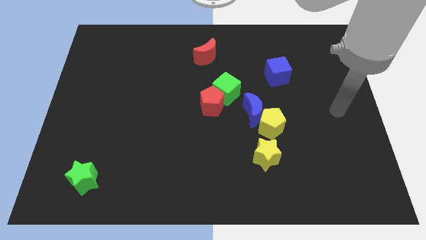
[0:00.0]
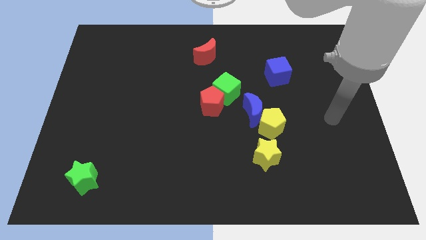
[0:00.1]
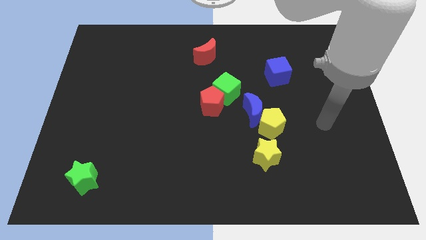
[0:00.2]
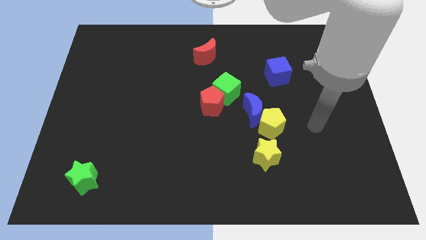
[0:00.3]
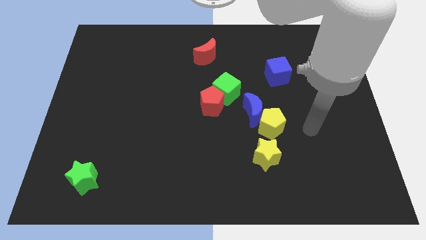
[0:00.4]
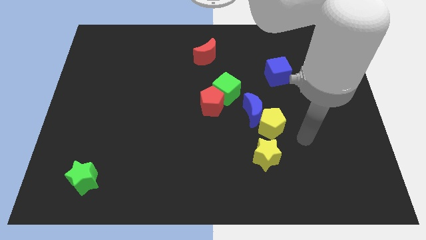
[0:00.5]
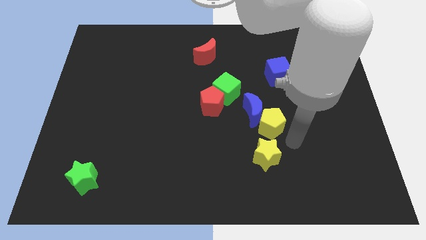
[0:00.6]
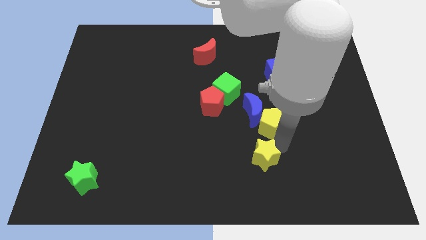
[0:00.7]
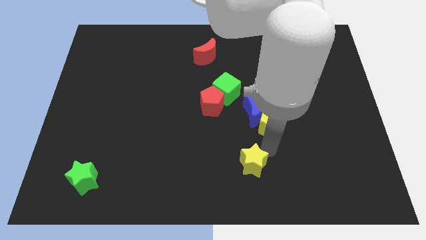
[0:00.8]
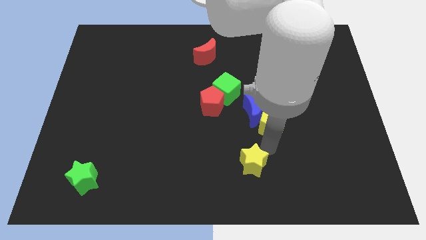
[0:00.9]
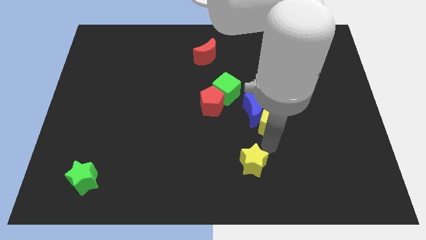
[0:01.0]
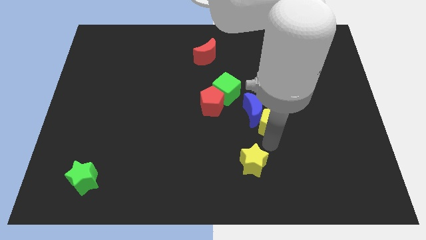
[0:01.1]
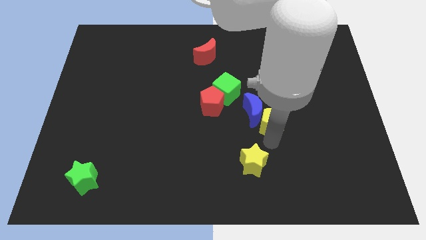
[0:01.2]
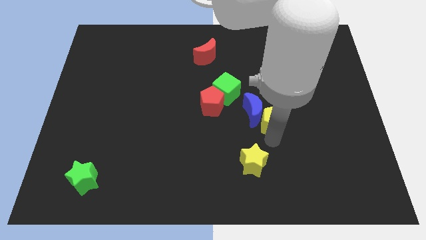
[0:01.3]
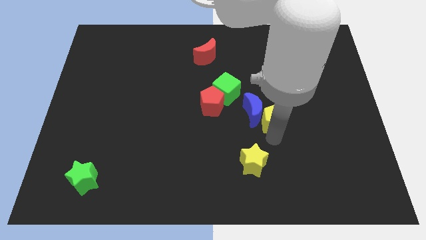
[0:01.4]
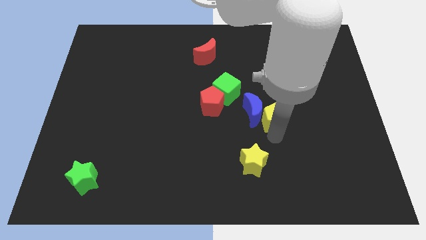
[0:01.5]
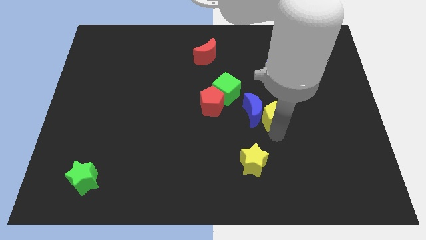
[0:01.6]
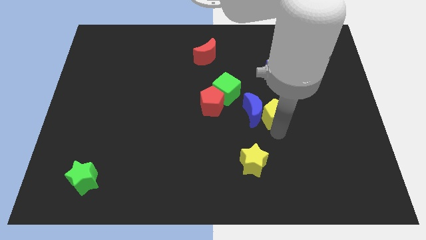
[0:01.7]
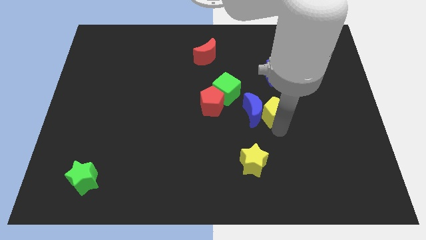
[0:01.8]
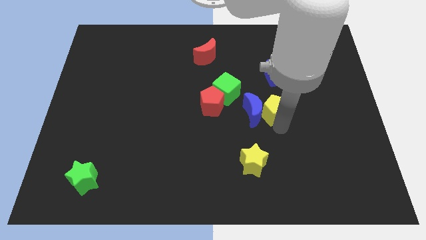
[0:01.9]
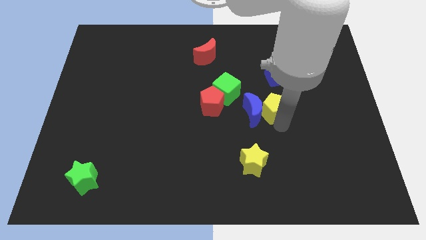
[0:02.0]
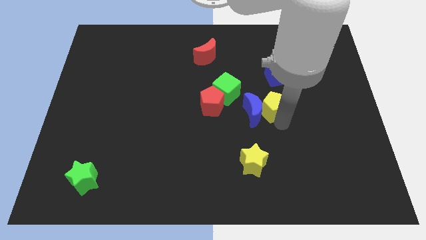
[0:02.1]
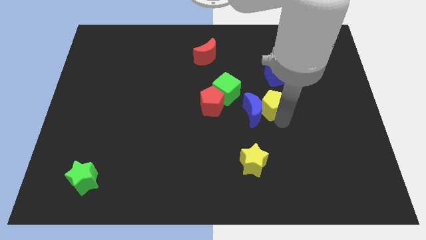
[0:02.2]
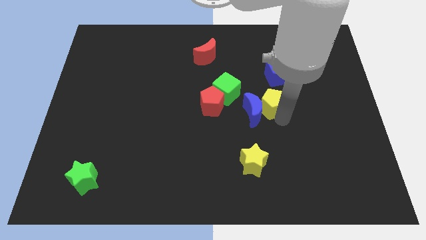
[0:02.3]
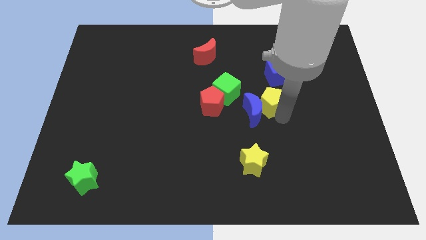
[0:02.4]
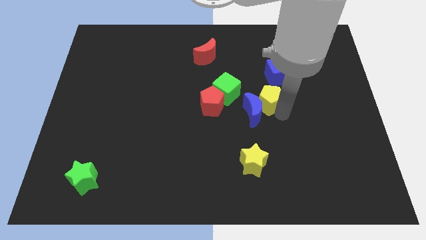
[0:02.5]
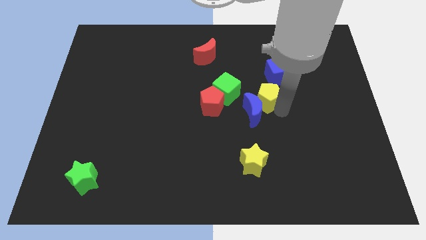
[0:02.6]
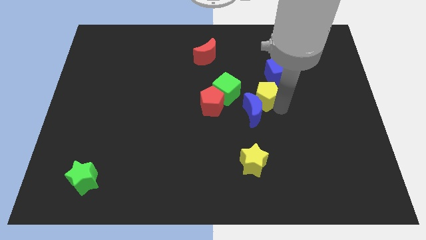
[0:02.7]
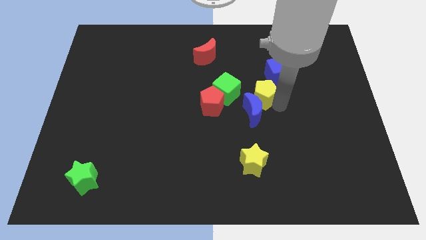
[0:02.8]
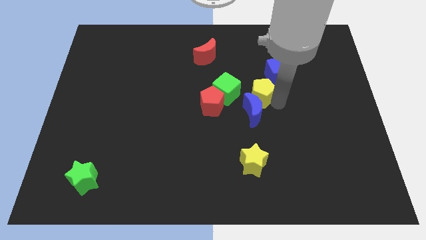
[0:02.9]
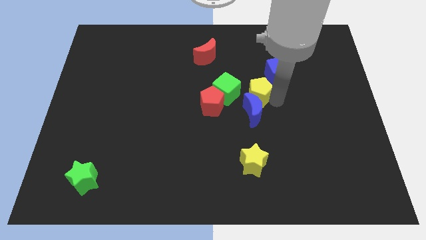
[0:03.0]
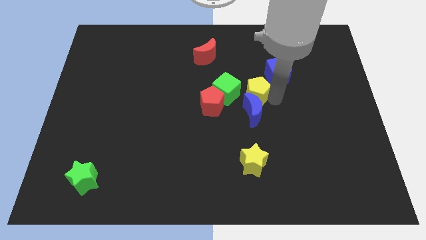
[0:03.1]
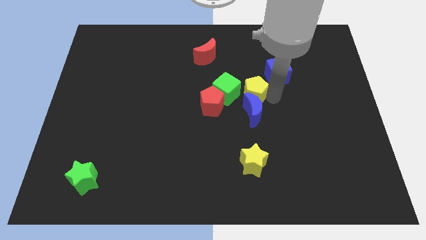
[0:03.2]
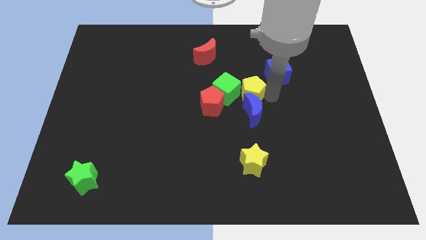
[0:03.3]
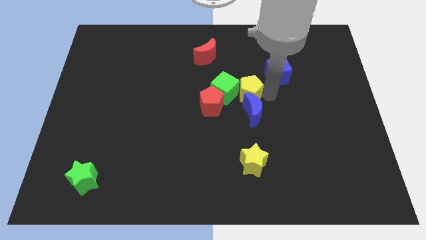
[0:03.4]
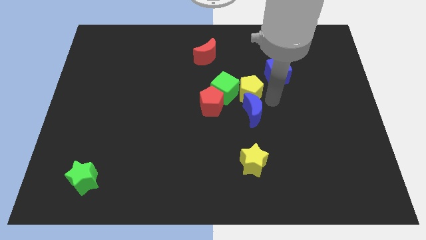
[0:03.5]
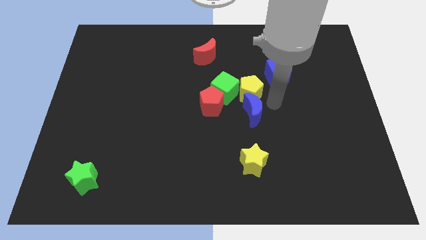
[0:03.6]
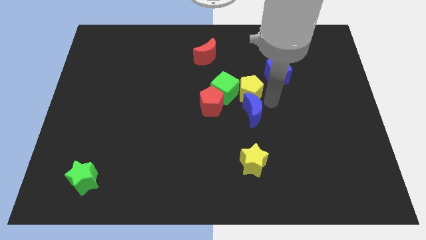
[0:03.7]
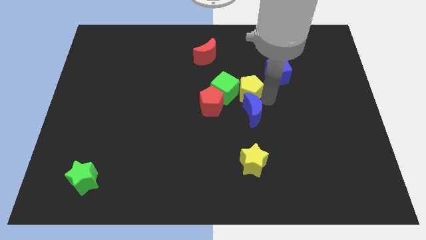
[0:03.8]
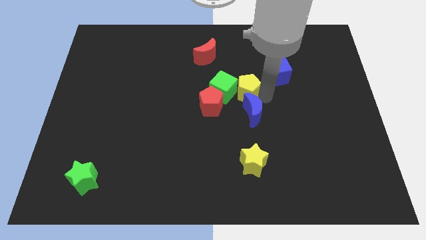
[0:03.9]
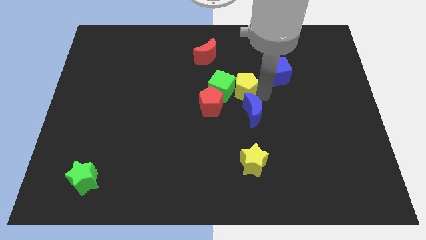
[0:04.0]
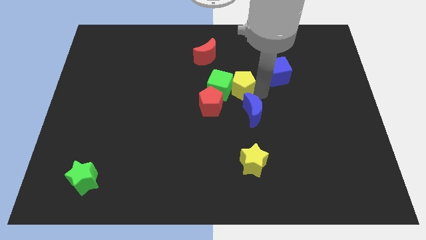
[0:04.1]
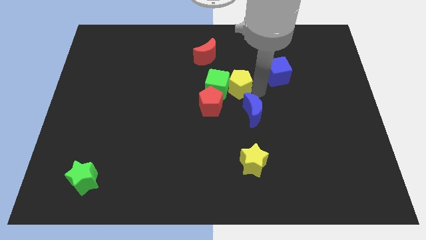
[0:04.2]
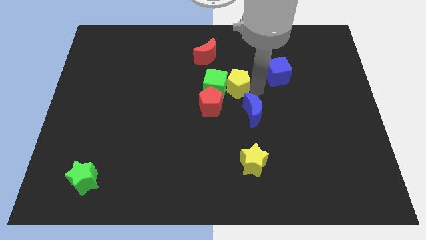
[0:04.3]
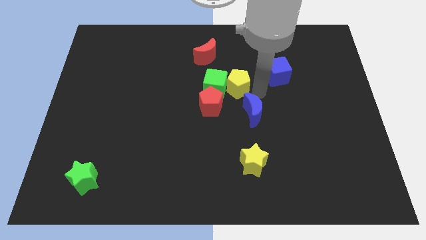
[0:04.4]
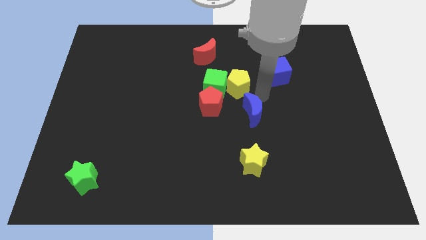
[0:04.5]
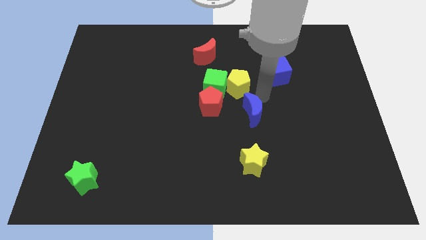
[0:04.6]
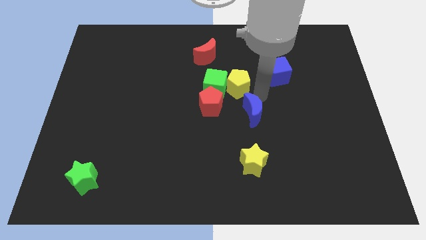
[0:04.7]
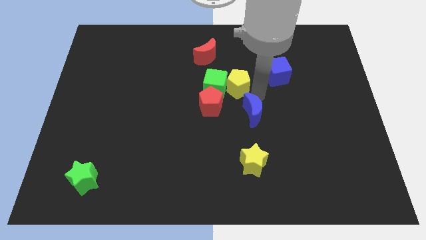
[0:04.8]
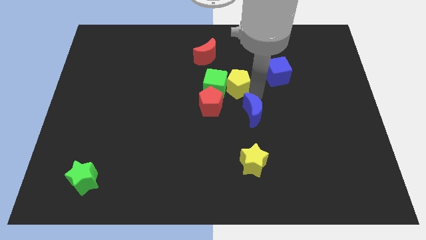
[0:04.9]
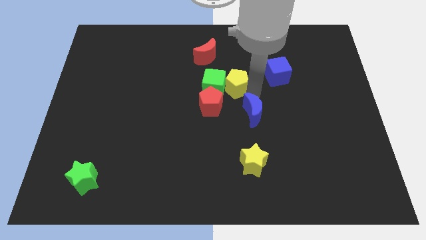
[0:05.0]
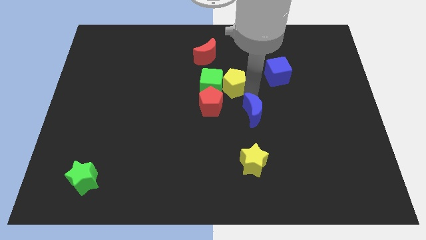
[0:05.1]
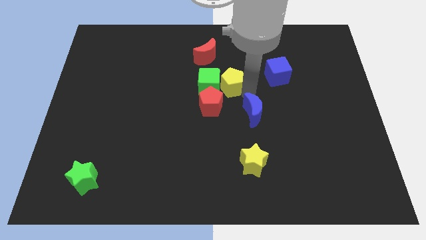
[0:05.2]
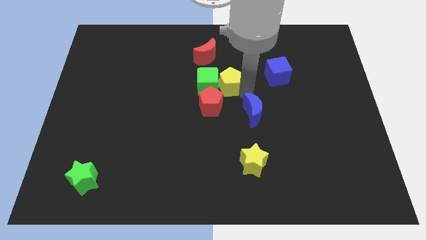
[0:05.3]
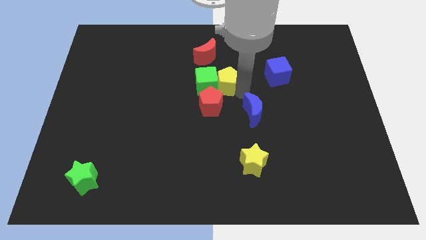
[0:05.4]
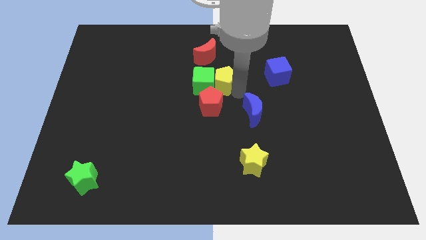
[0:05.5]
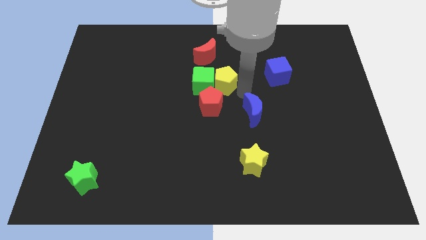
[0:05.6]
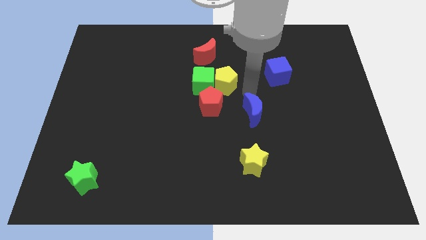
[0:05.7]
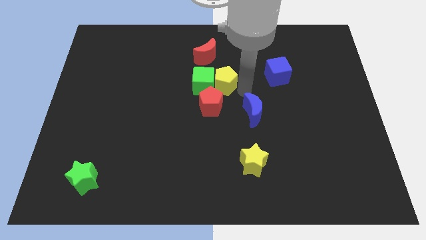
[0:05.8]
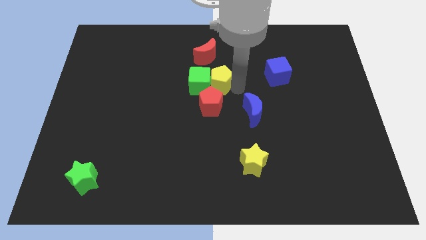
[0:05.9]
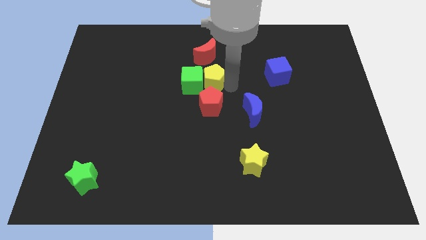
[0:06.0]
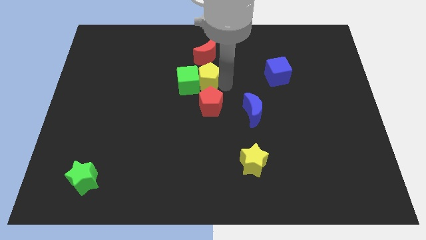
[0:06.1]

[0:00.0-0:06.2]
slide the yellow pentagon diagonally up and left

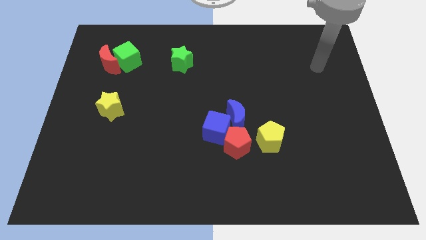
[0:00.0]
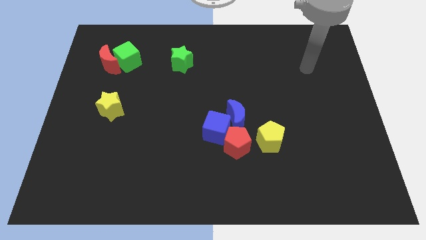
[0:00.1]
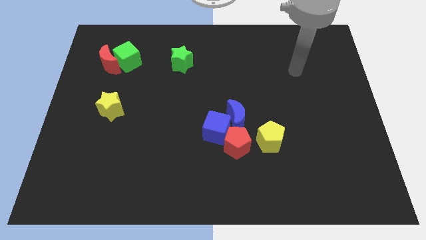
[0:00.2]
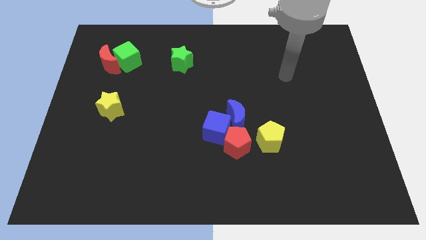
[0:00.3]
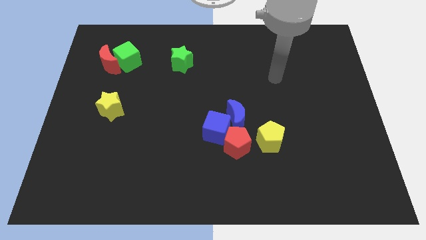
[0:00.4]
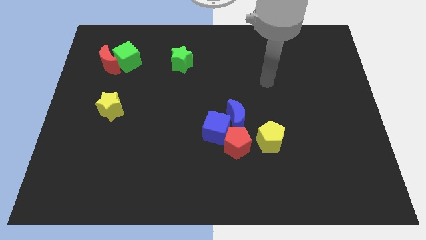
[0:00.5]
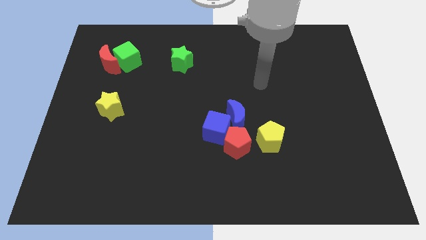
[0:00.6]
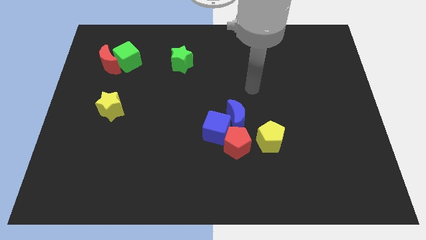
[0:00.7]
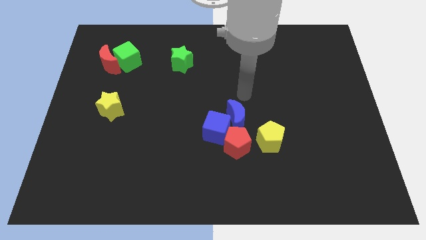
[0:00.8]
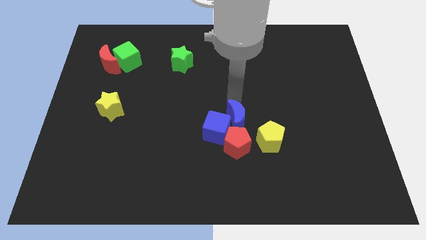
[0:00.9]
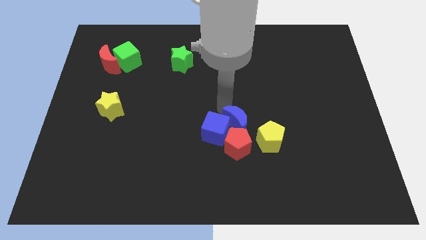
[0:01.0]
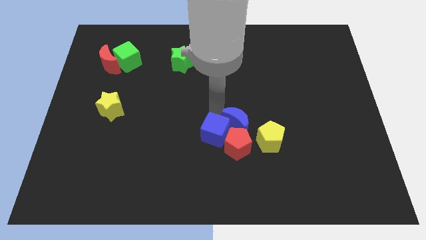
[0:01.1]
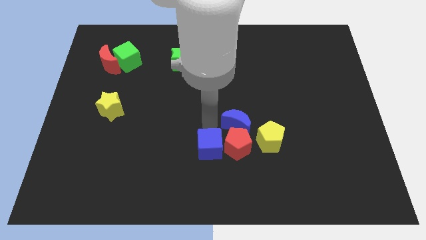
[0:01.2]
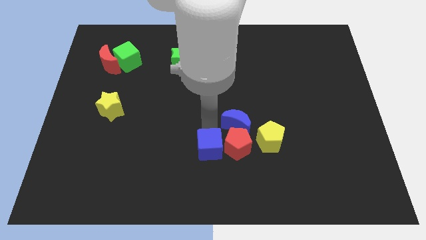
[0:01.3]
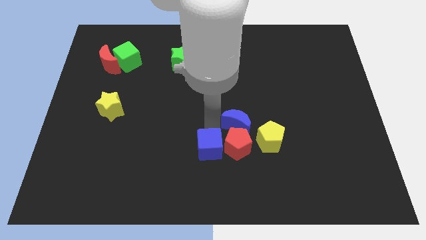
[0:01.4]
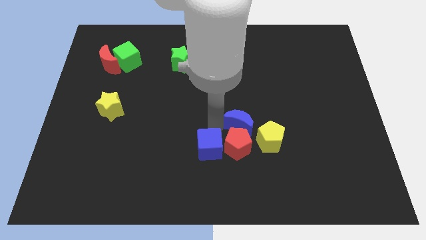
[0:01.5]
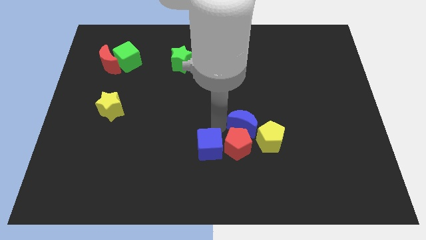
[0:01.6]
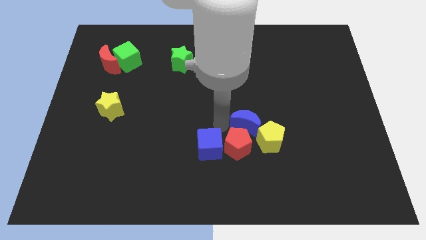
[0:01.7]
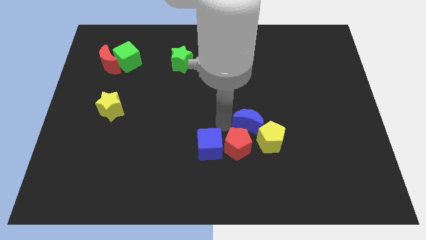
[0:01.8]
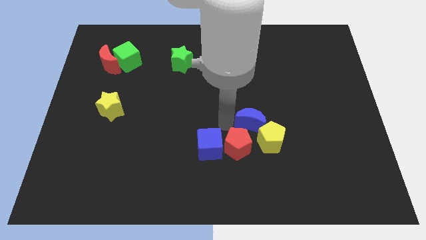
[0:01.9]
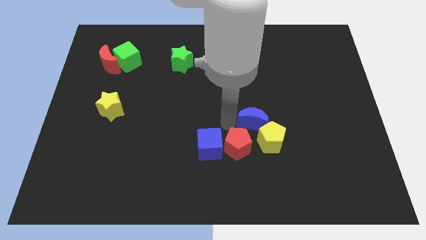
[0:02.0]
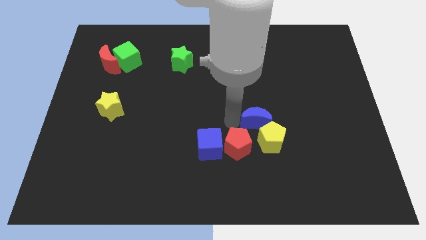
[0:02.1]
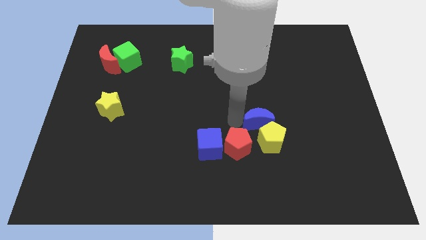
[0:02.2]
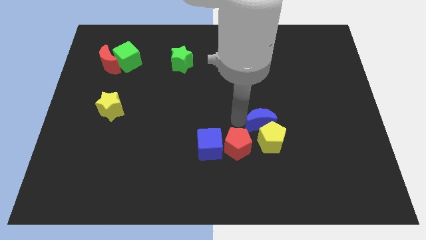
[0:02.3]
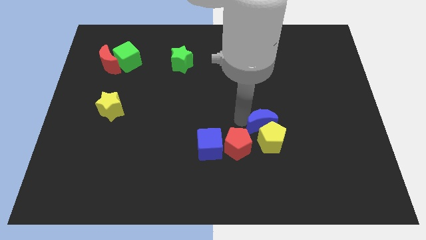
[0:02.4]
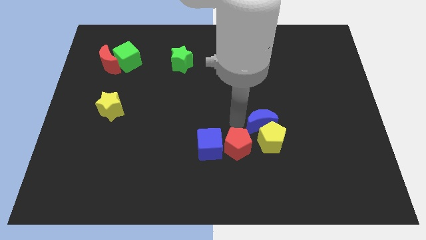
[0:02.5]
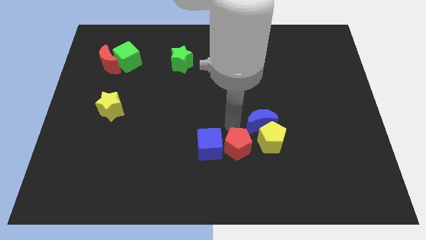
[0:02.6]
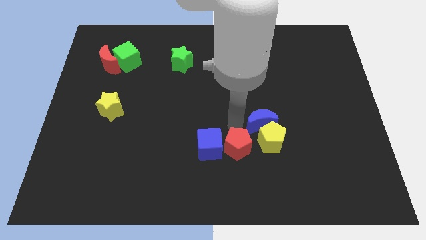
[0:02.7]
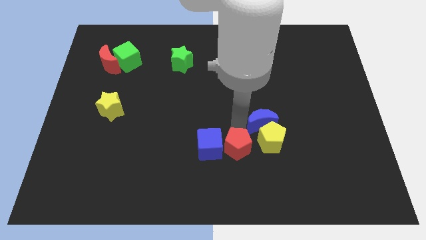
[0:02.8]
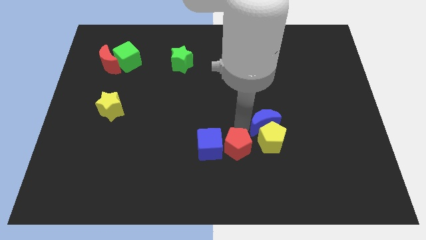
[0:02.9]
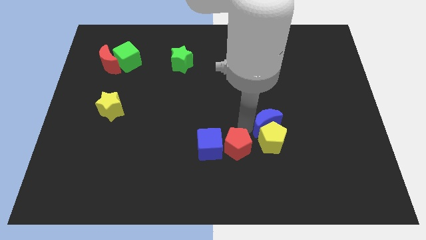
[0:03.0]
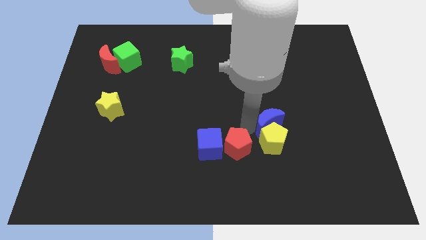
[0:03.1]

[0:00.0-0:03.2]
push the blue moon to the right a little
